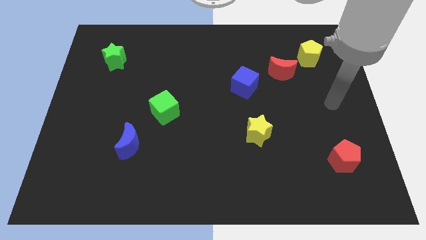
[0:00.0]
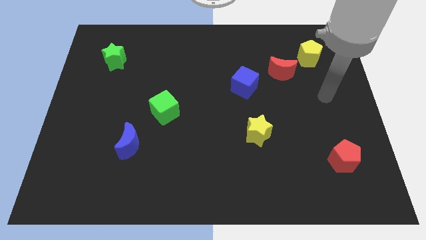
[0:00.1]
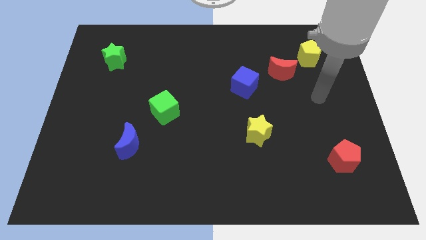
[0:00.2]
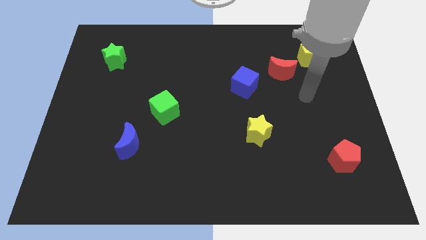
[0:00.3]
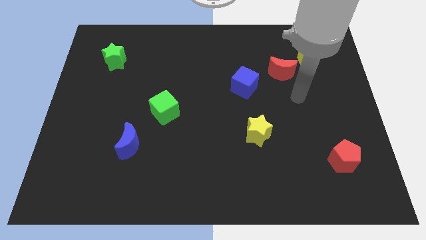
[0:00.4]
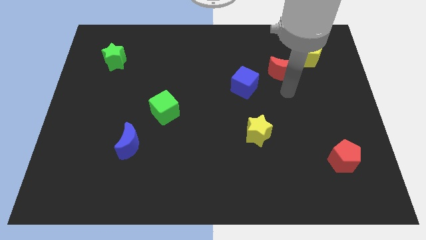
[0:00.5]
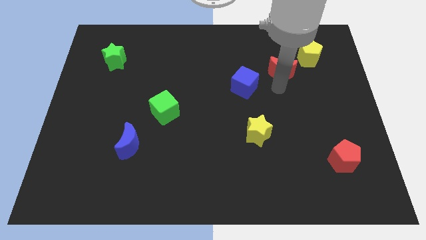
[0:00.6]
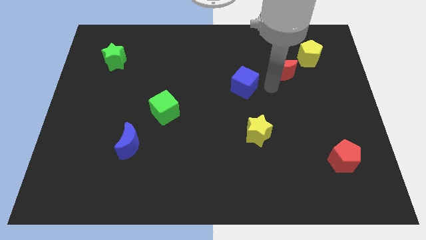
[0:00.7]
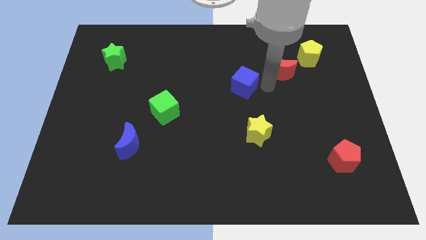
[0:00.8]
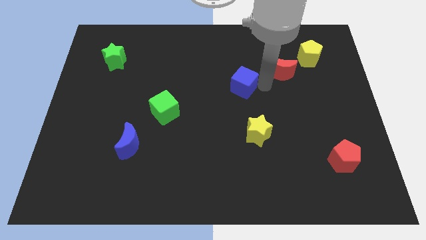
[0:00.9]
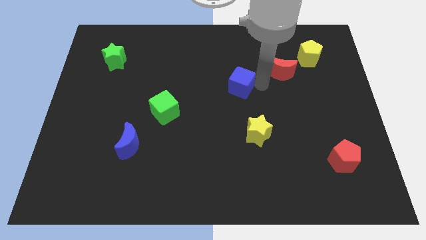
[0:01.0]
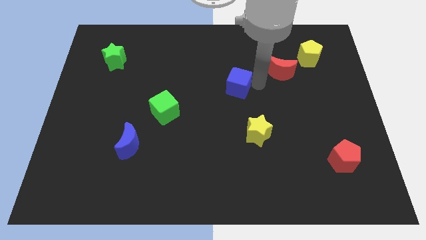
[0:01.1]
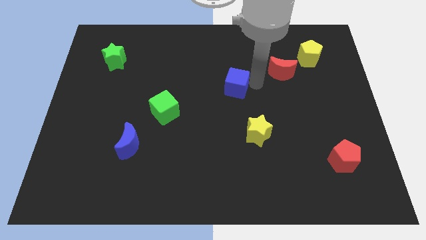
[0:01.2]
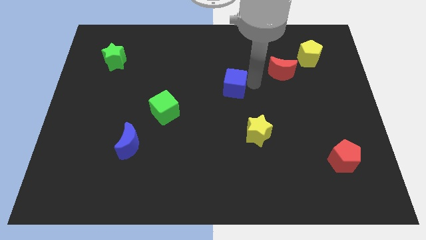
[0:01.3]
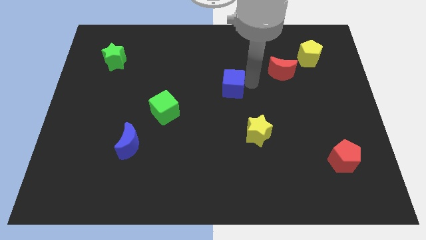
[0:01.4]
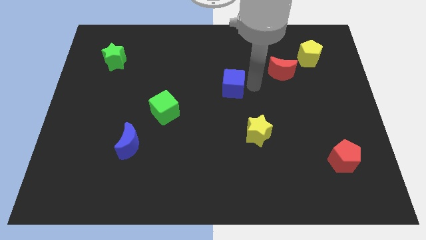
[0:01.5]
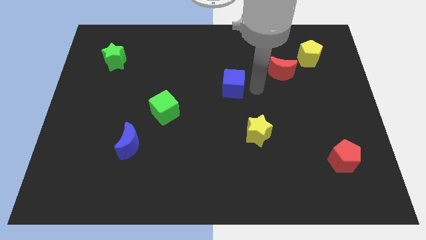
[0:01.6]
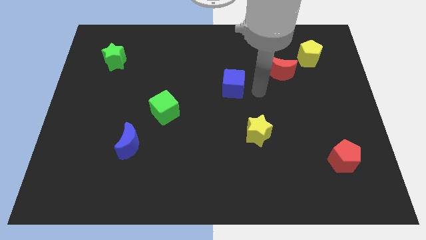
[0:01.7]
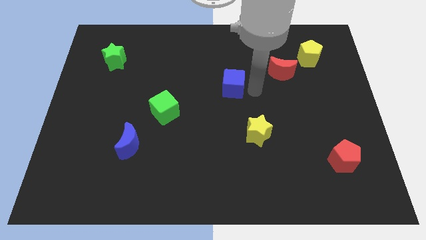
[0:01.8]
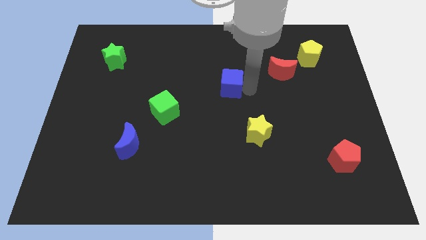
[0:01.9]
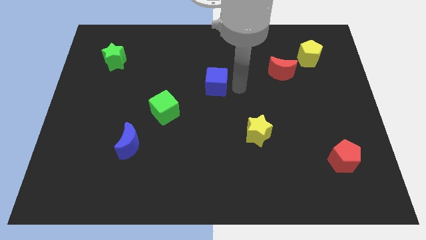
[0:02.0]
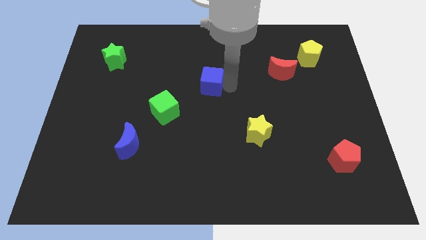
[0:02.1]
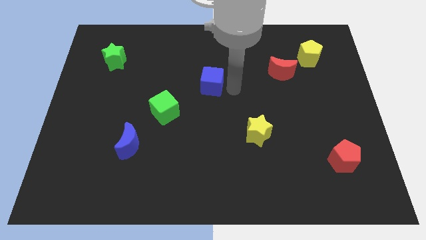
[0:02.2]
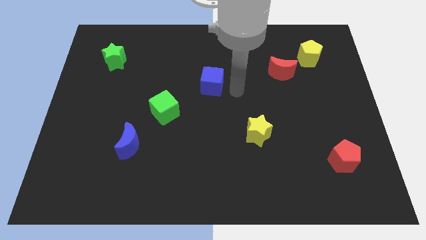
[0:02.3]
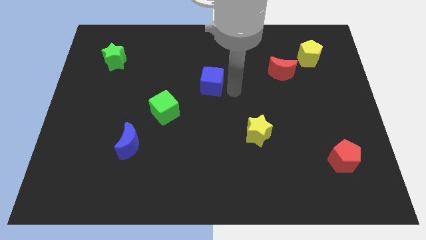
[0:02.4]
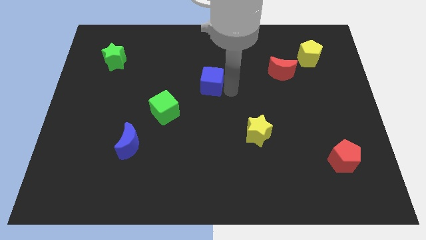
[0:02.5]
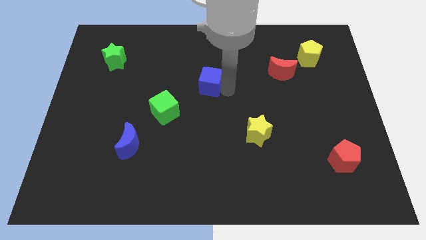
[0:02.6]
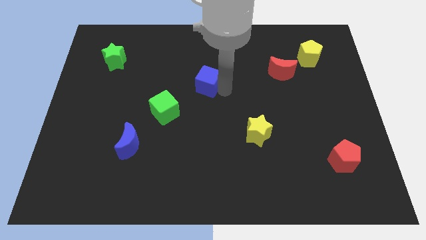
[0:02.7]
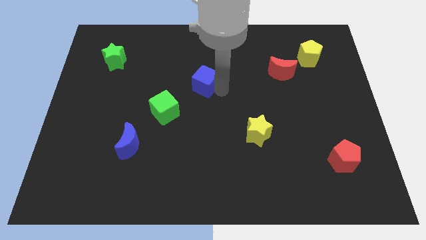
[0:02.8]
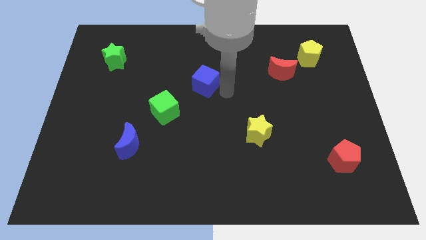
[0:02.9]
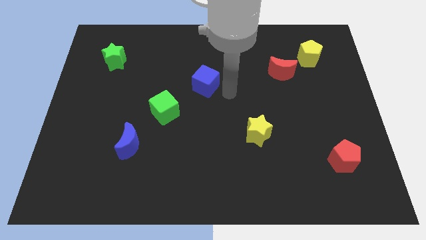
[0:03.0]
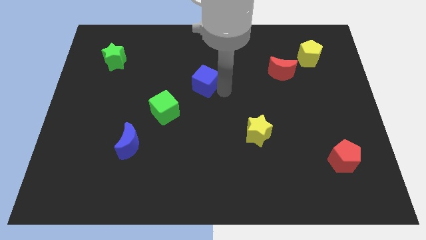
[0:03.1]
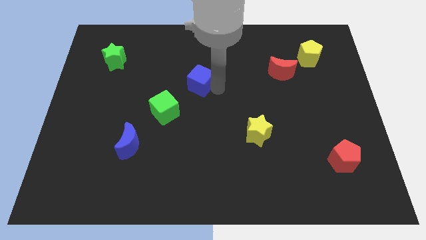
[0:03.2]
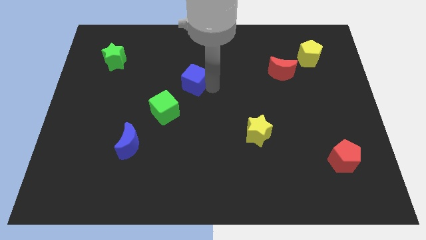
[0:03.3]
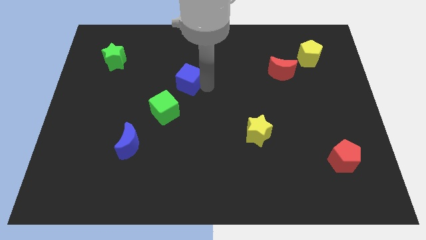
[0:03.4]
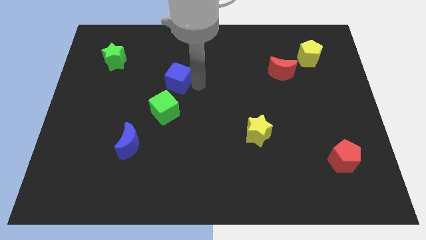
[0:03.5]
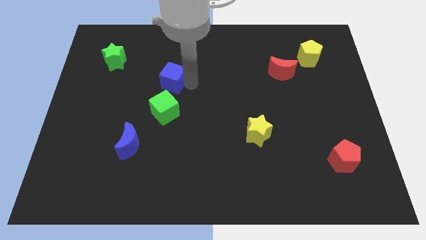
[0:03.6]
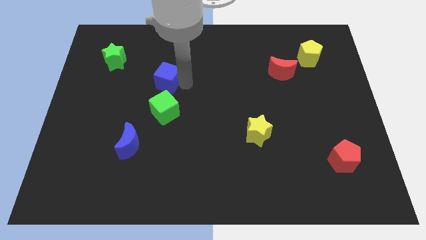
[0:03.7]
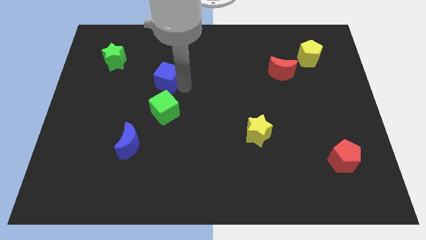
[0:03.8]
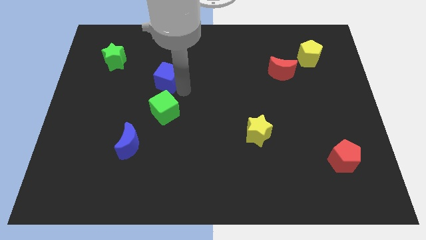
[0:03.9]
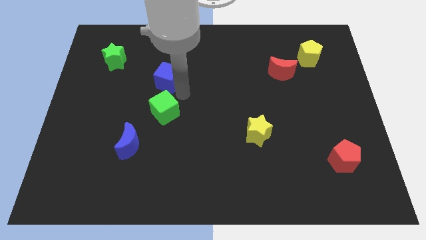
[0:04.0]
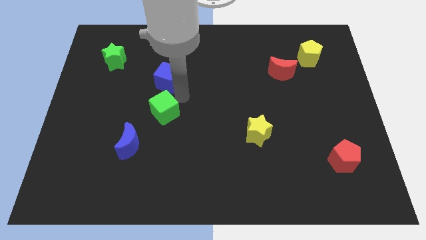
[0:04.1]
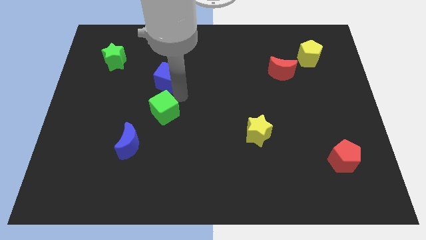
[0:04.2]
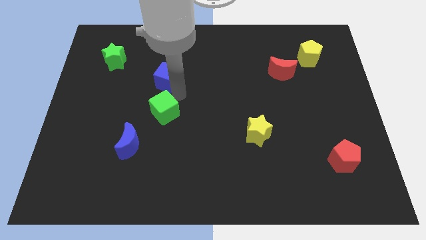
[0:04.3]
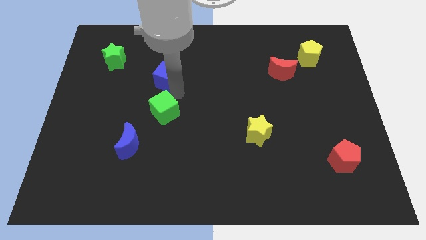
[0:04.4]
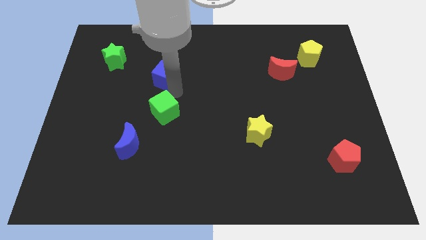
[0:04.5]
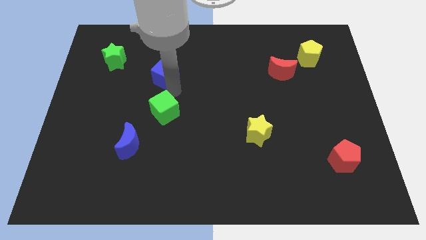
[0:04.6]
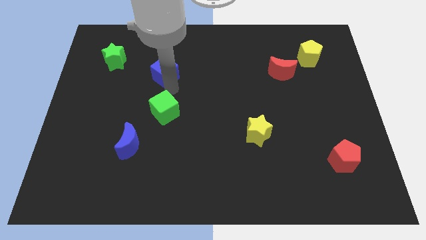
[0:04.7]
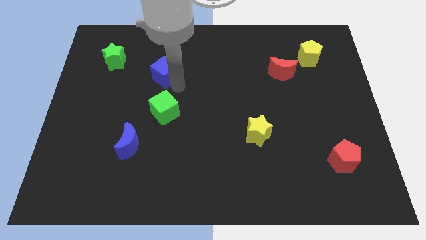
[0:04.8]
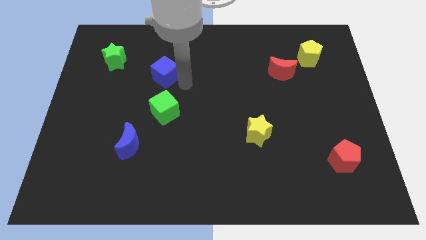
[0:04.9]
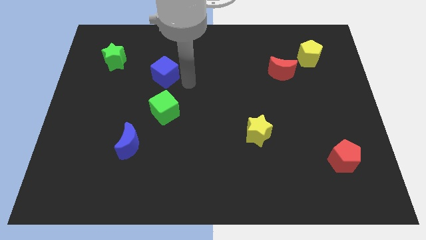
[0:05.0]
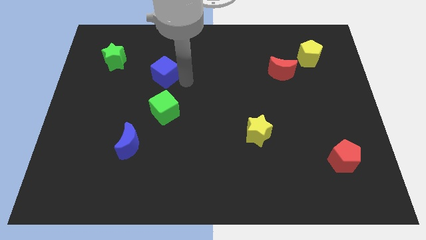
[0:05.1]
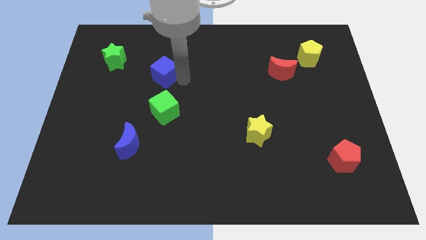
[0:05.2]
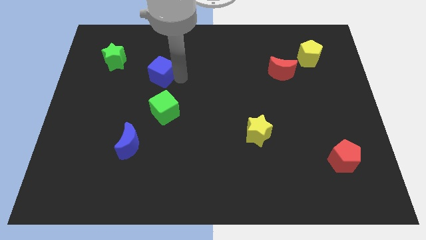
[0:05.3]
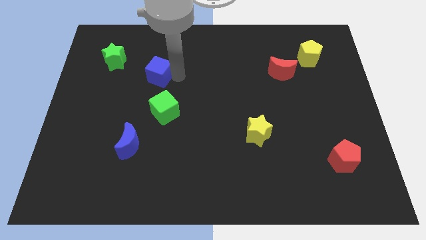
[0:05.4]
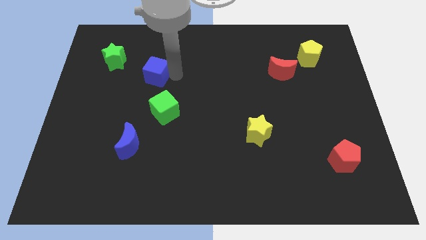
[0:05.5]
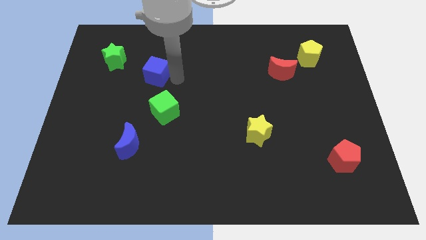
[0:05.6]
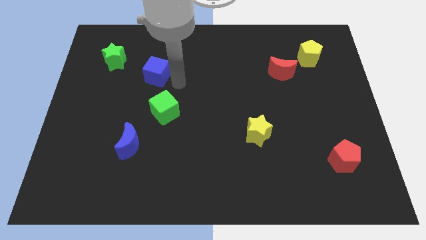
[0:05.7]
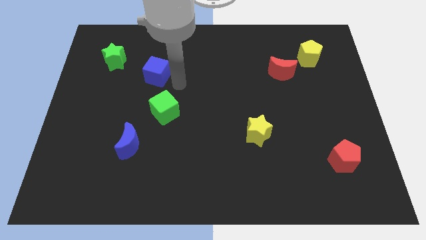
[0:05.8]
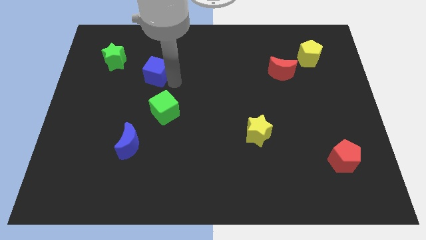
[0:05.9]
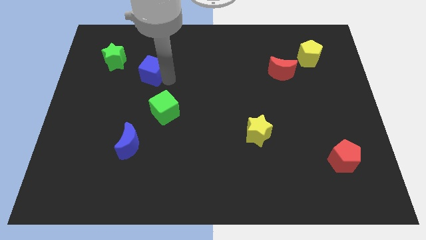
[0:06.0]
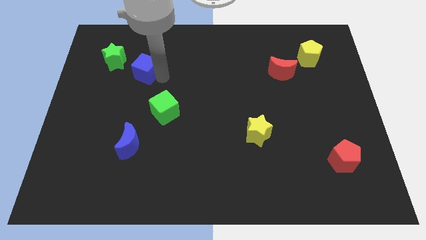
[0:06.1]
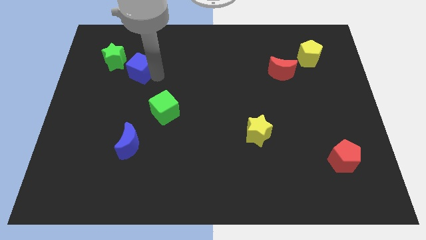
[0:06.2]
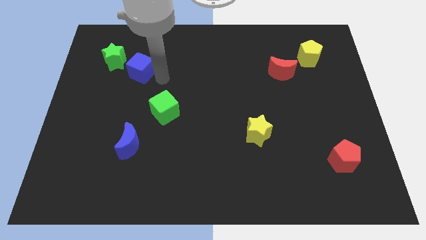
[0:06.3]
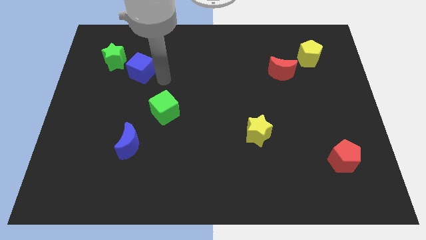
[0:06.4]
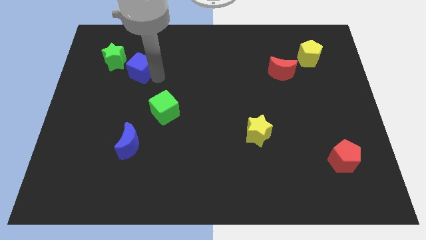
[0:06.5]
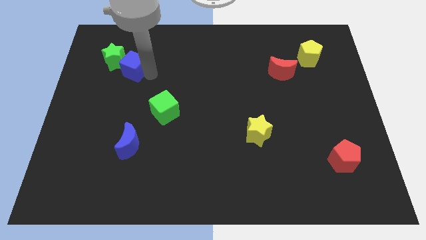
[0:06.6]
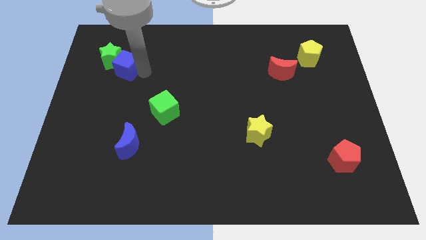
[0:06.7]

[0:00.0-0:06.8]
push the blue cube next to the green star
